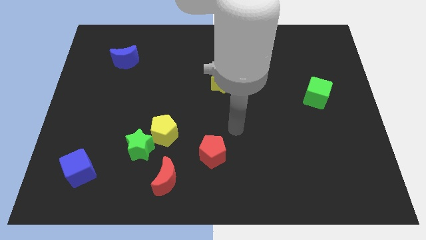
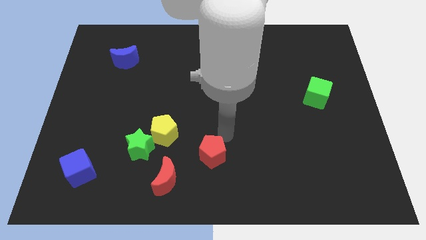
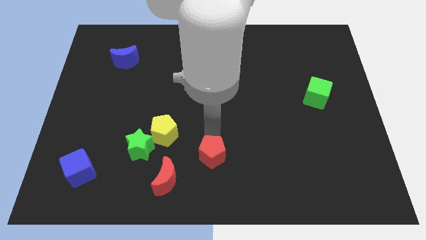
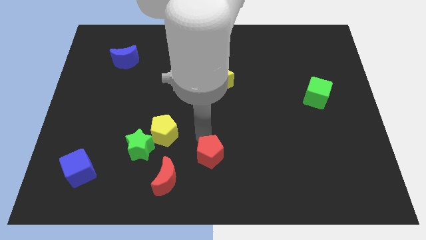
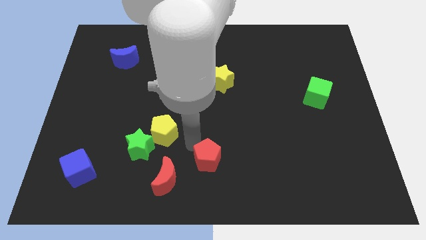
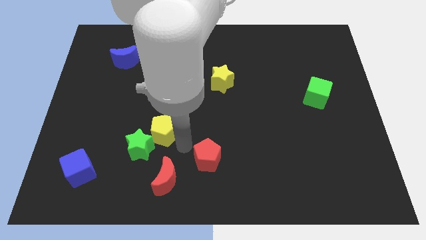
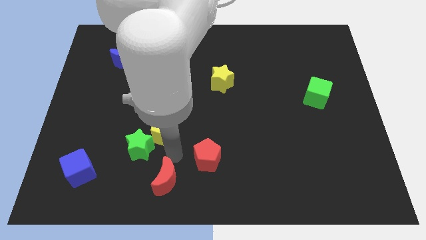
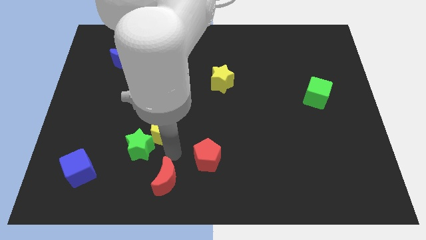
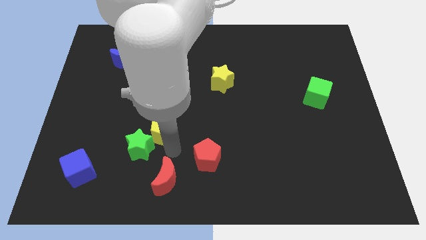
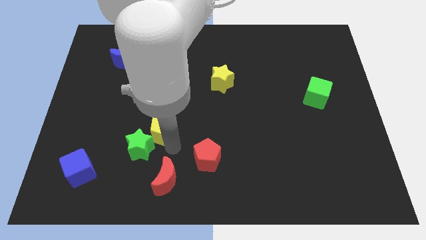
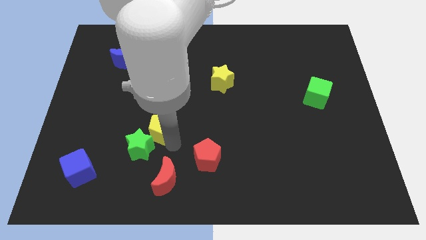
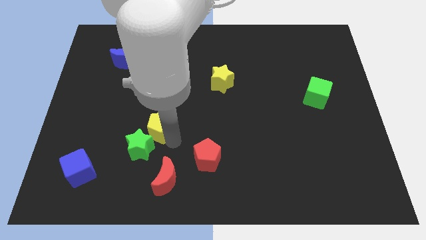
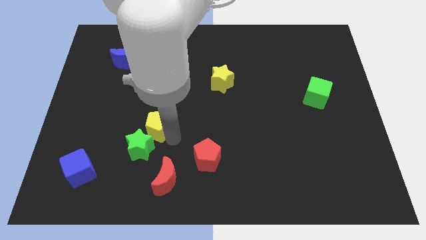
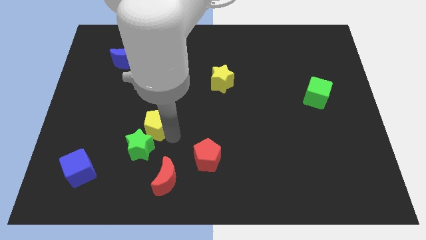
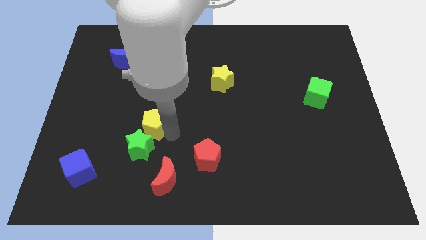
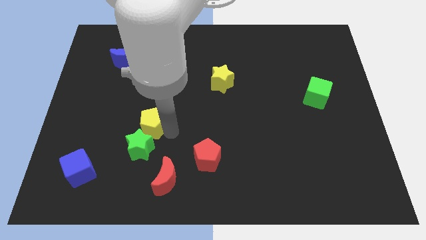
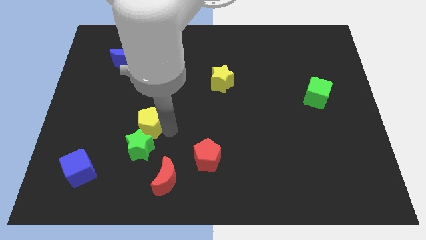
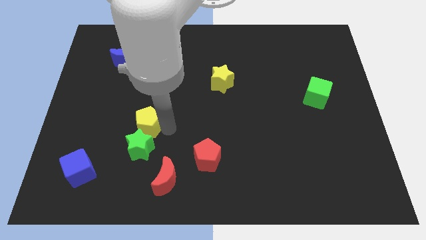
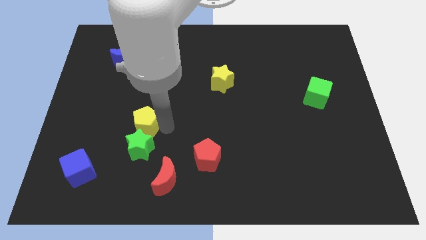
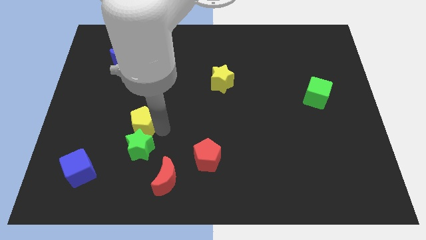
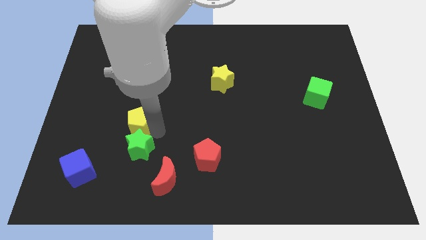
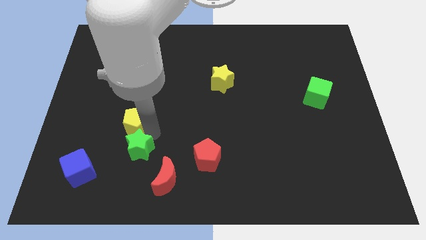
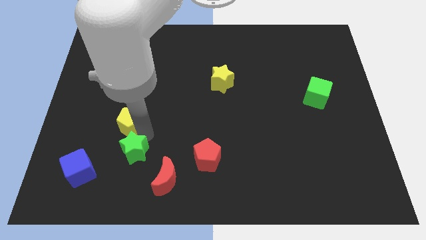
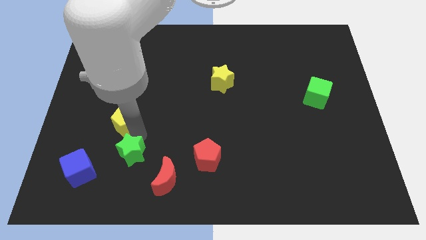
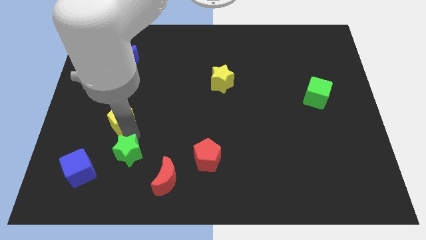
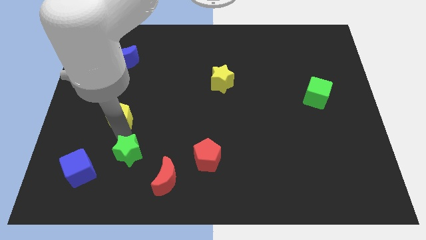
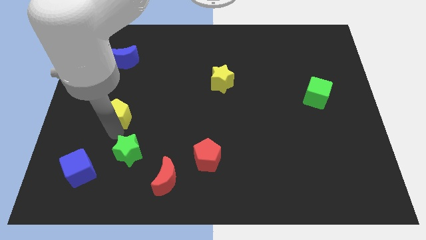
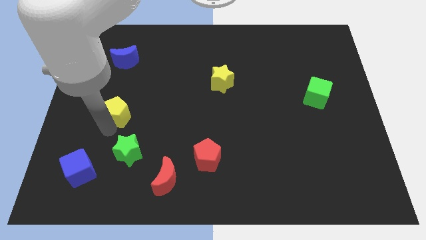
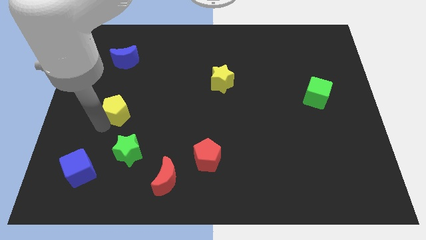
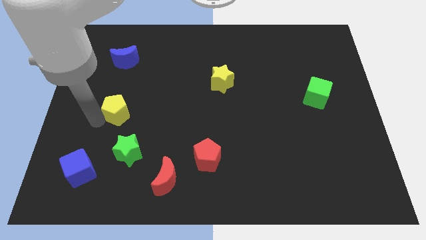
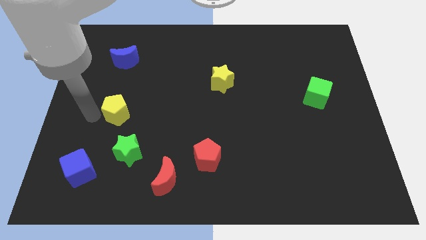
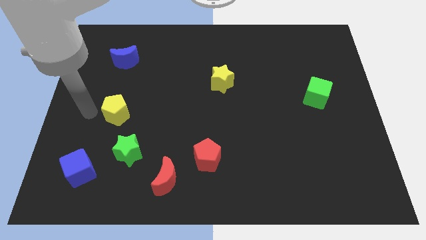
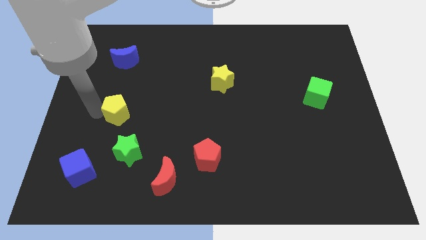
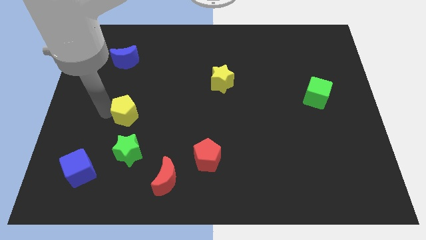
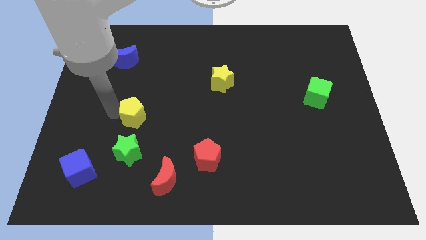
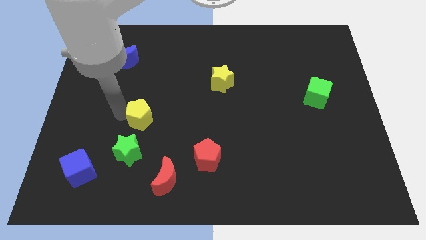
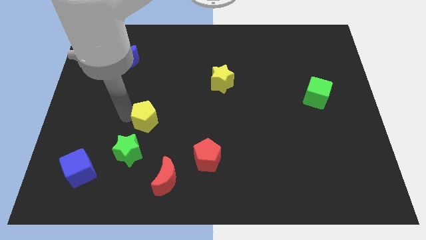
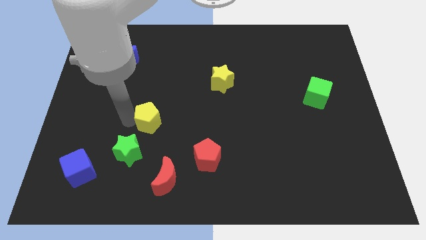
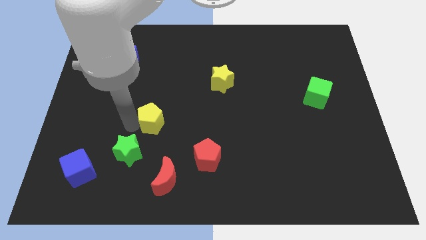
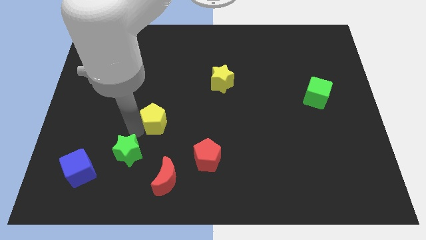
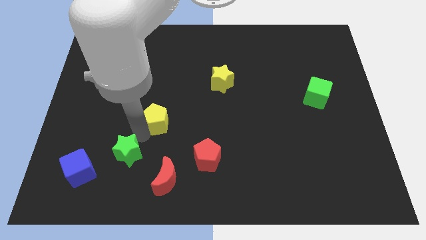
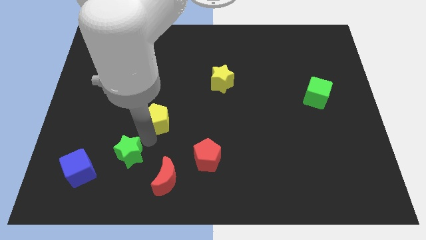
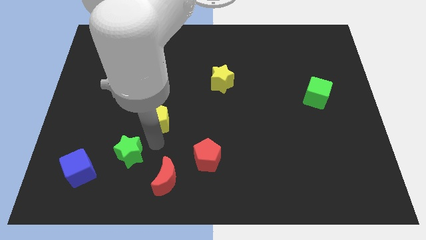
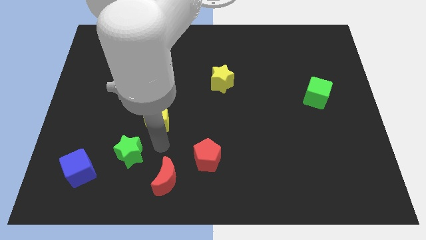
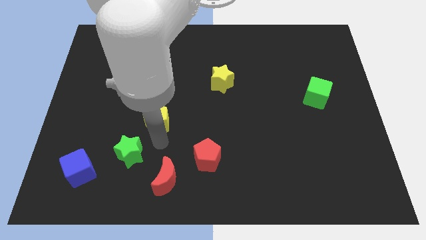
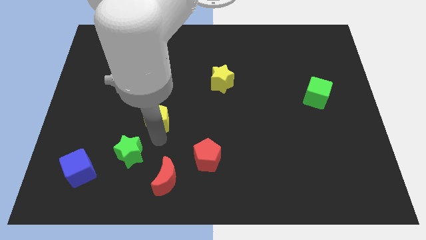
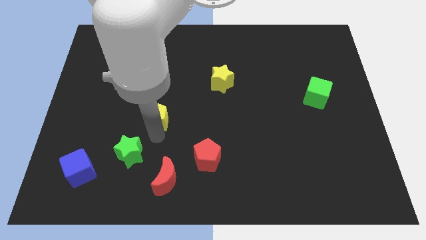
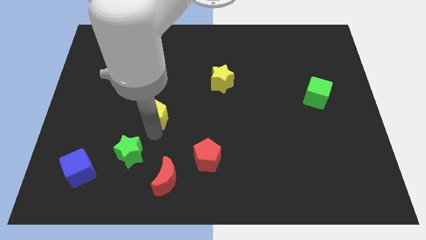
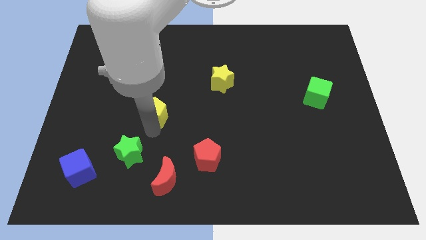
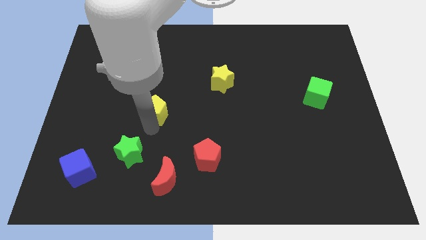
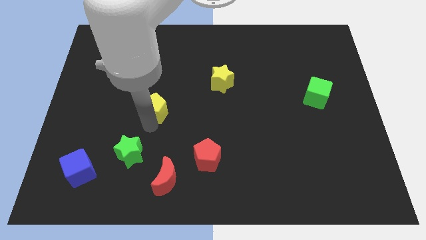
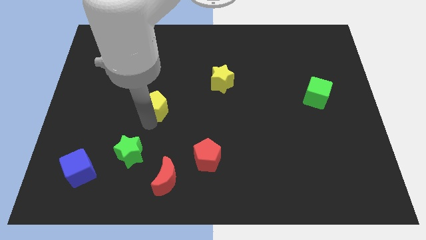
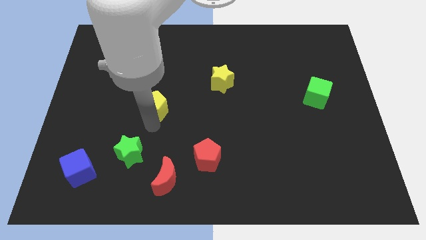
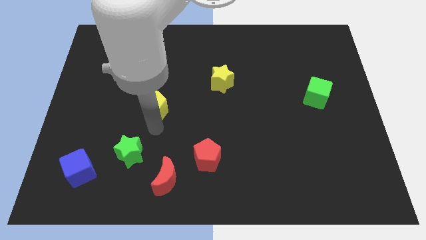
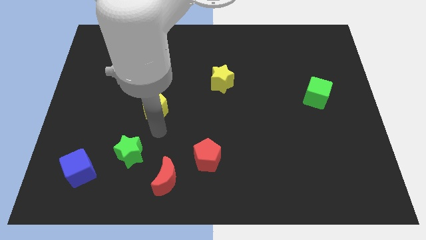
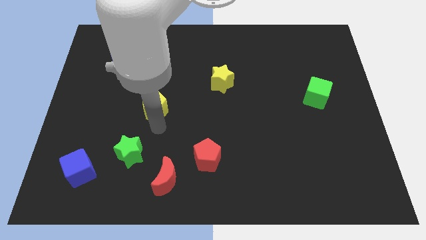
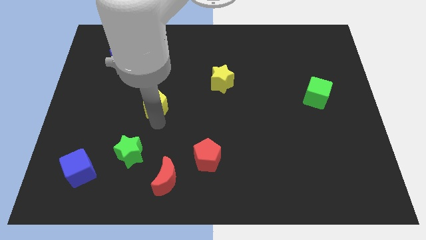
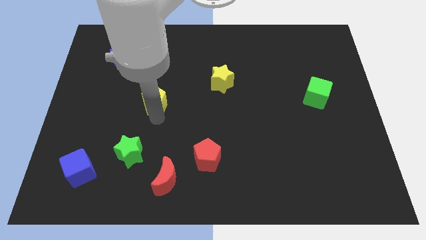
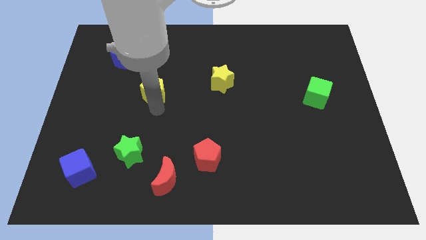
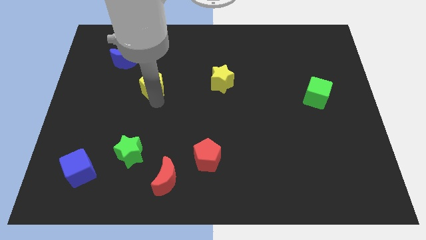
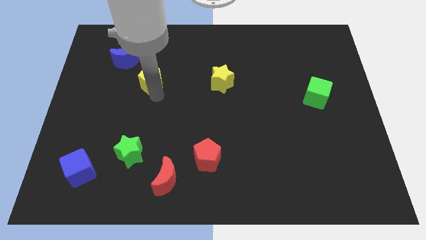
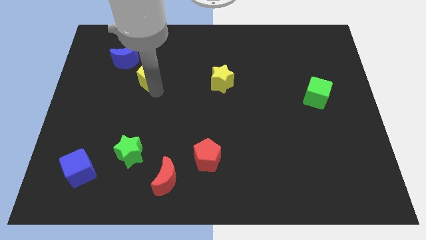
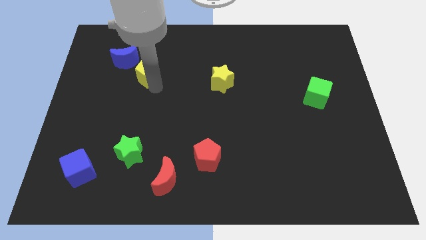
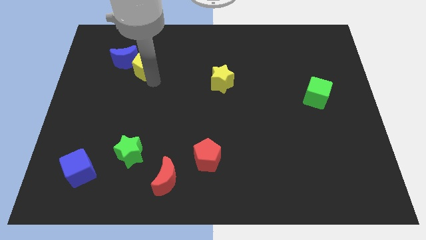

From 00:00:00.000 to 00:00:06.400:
slide the yellow pentagon towards the blue moon

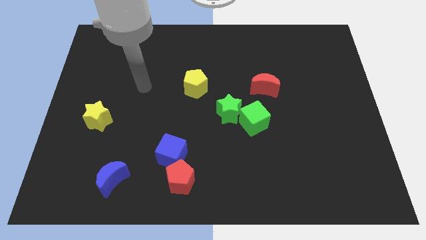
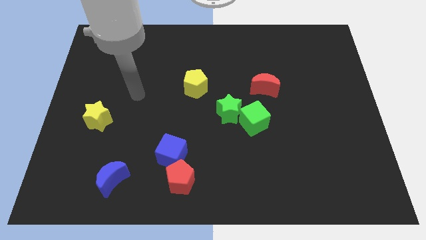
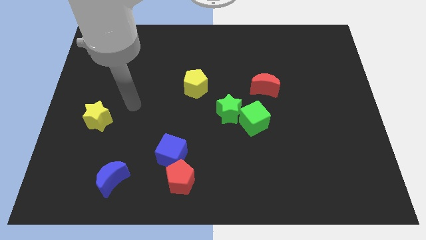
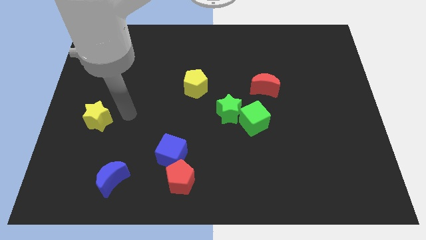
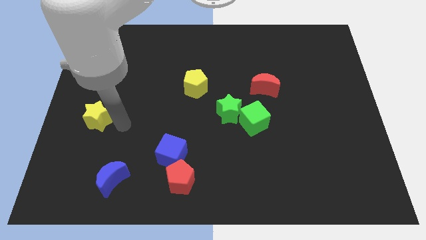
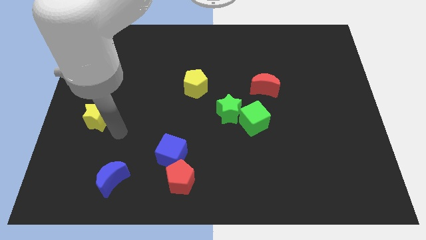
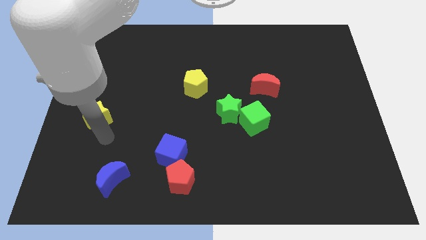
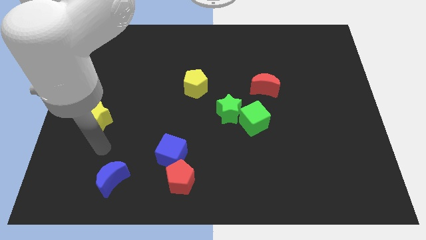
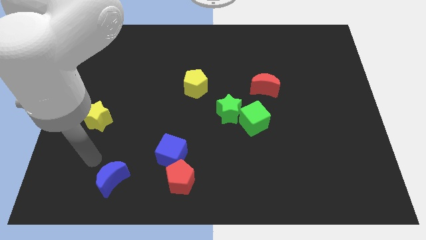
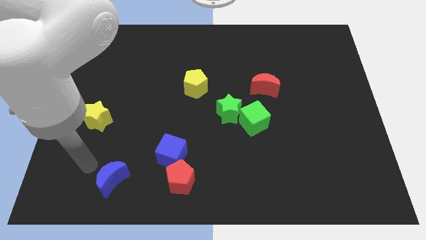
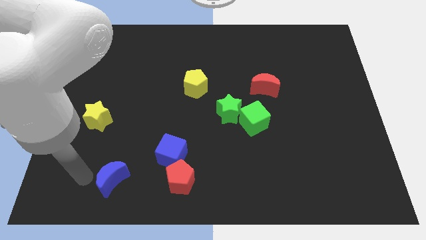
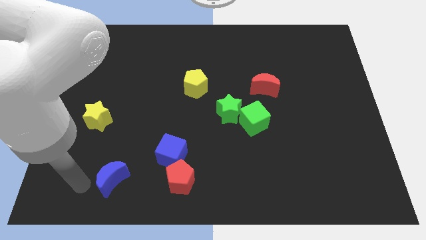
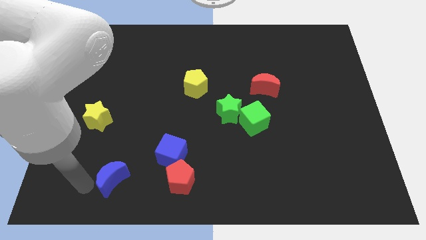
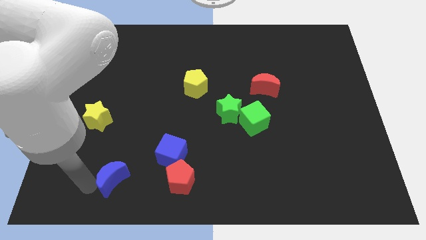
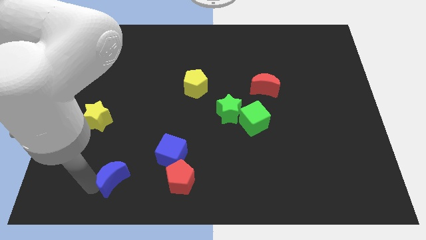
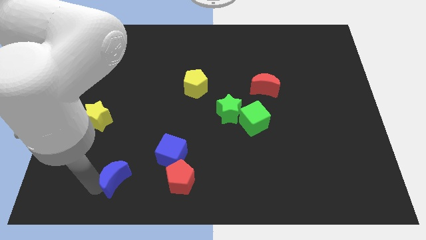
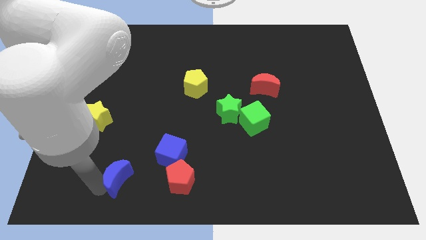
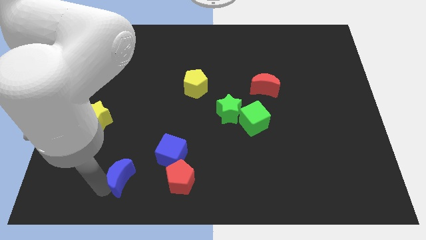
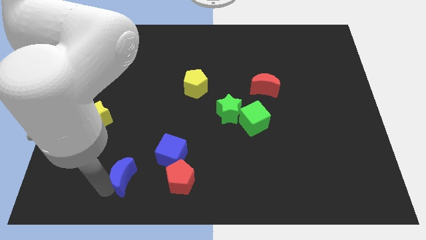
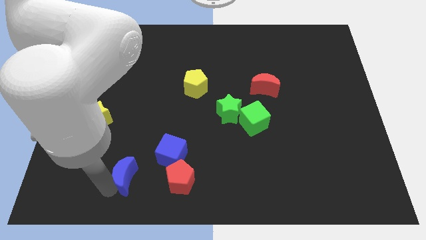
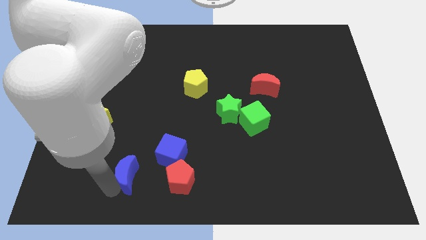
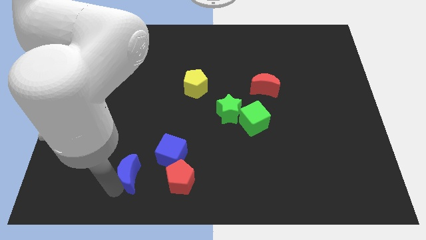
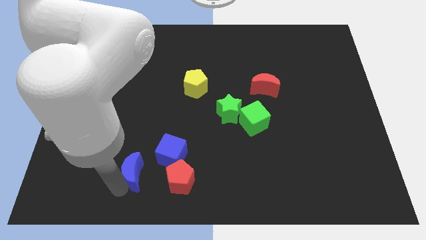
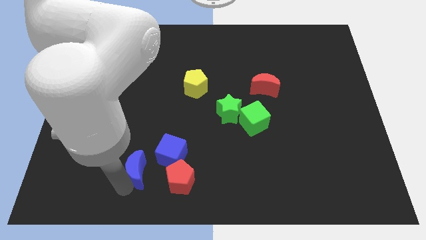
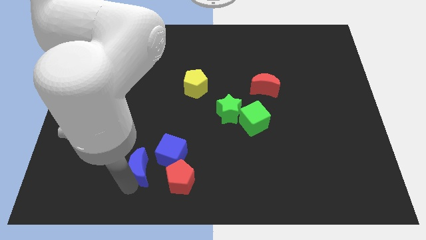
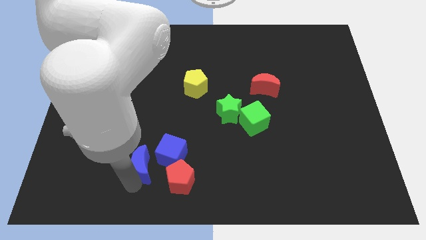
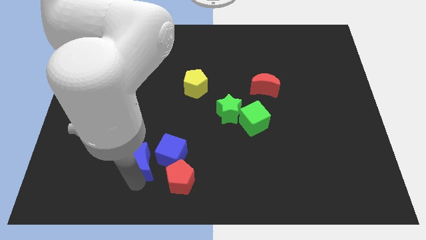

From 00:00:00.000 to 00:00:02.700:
slide the blue moon to the blue cube
